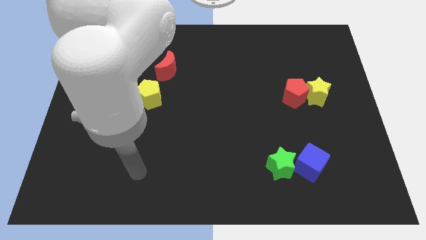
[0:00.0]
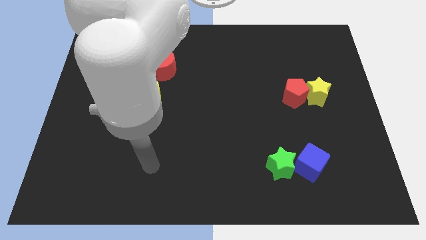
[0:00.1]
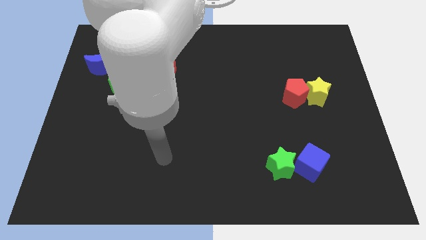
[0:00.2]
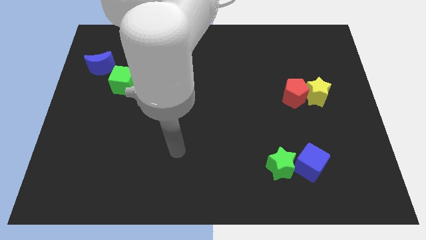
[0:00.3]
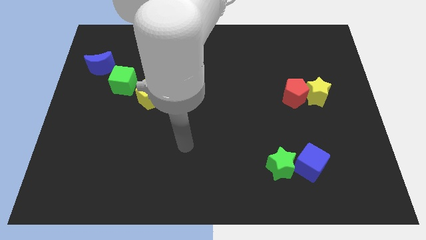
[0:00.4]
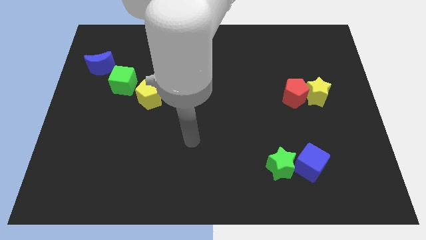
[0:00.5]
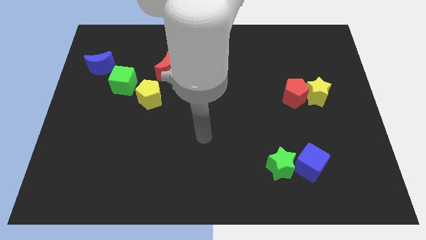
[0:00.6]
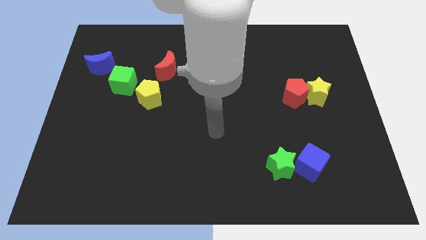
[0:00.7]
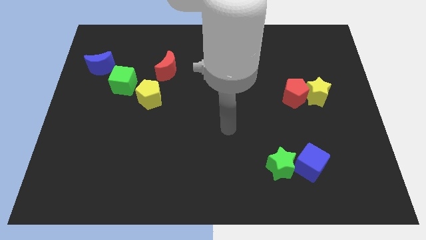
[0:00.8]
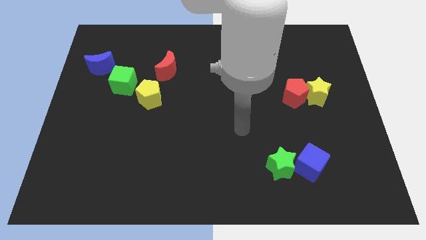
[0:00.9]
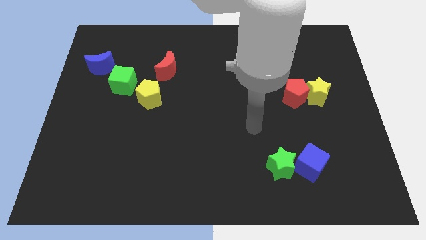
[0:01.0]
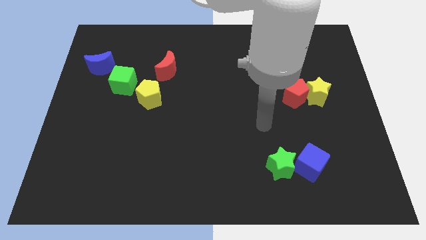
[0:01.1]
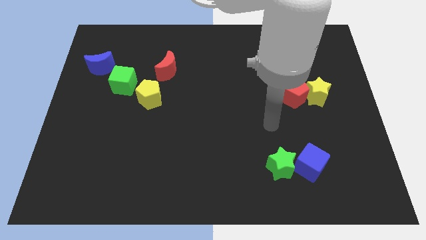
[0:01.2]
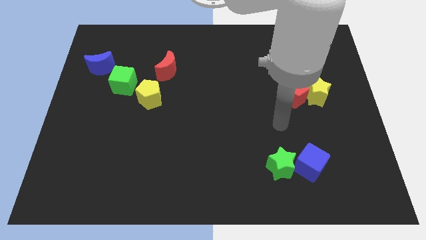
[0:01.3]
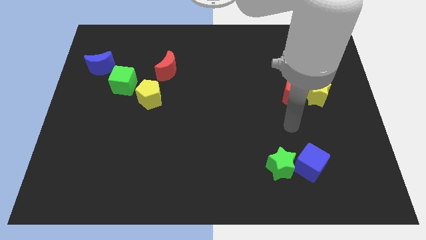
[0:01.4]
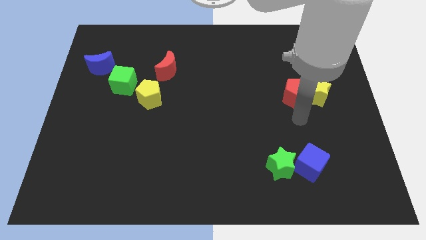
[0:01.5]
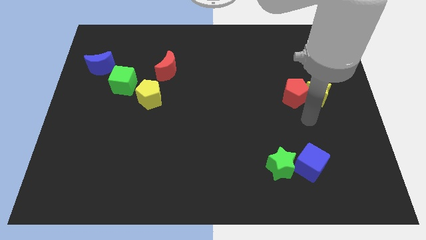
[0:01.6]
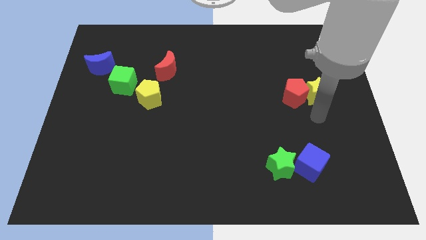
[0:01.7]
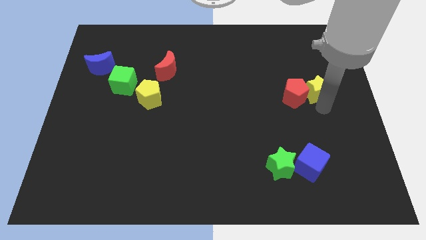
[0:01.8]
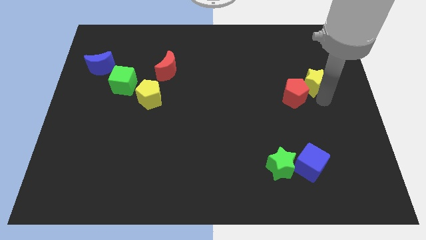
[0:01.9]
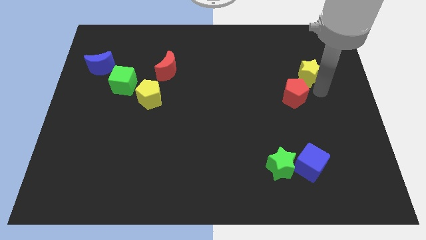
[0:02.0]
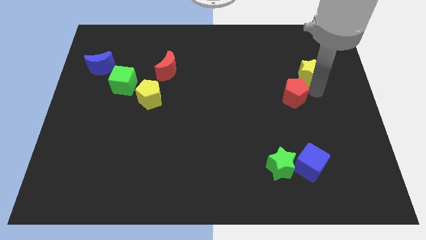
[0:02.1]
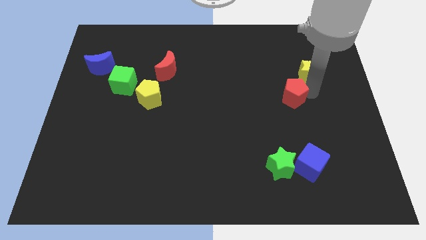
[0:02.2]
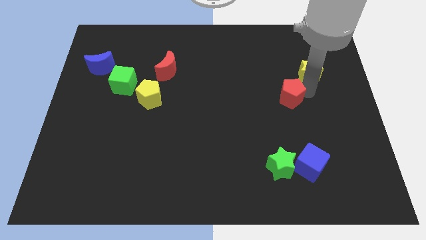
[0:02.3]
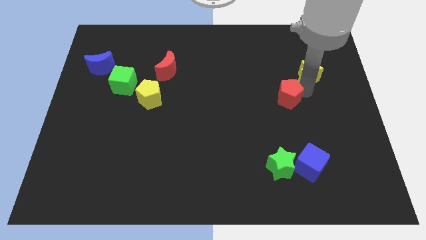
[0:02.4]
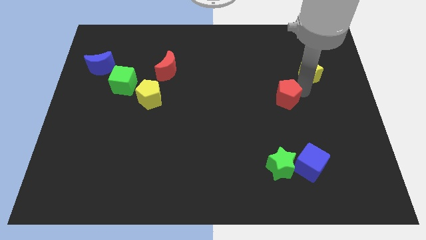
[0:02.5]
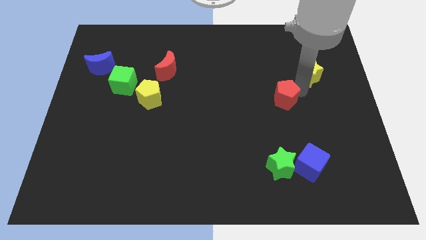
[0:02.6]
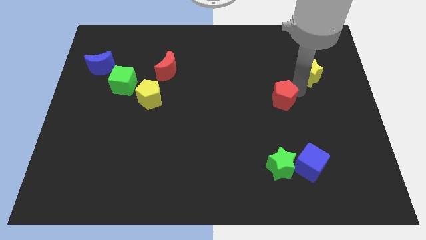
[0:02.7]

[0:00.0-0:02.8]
separate the red pentagon from the yellow star

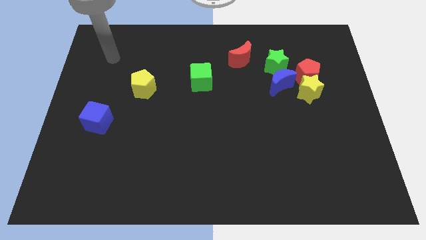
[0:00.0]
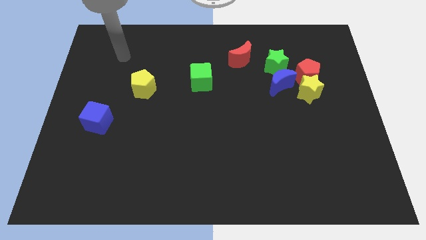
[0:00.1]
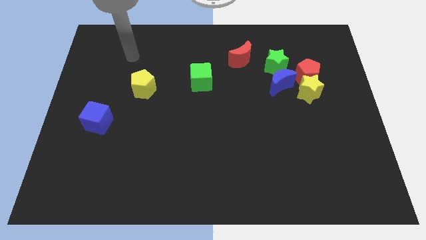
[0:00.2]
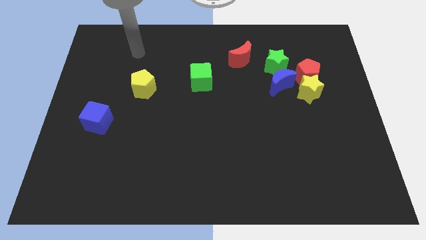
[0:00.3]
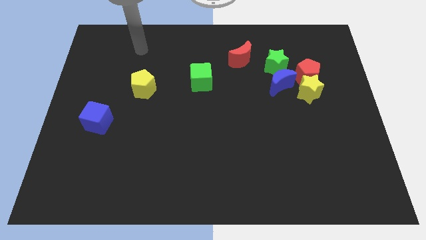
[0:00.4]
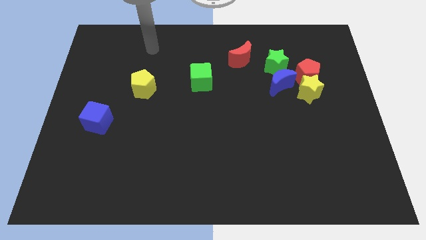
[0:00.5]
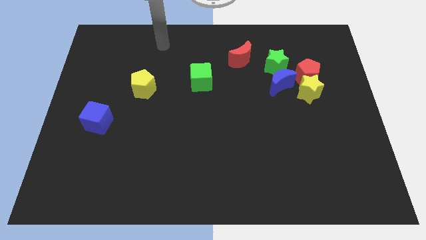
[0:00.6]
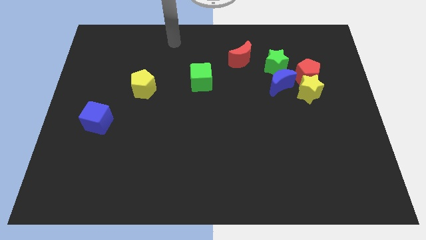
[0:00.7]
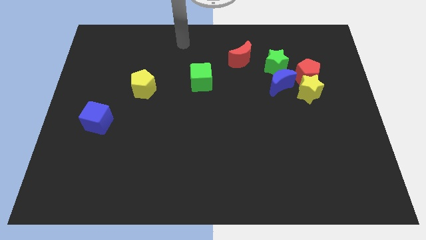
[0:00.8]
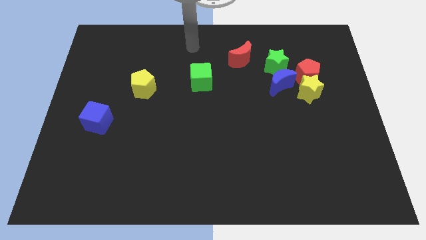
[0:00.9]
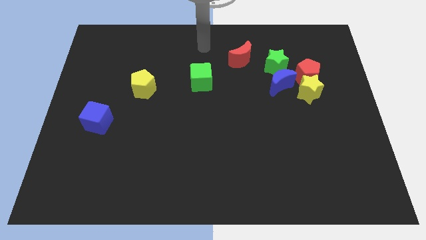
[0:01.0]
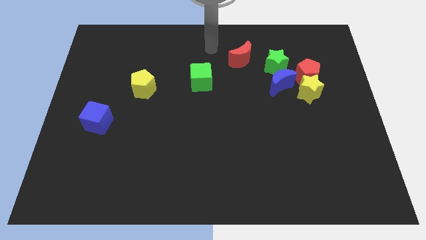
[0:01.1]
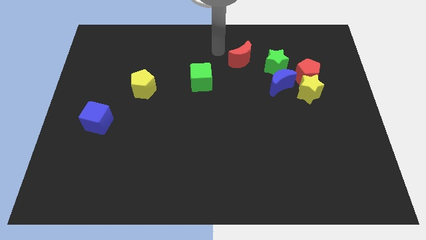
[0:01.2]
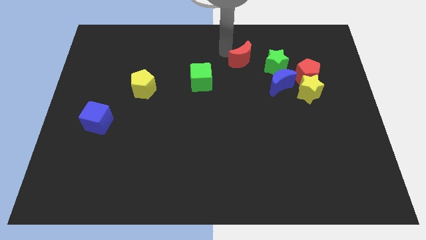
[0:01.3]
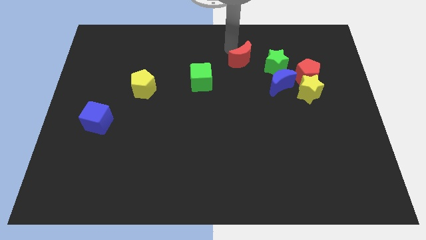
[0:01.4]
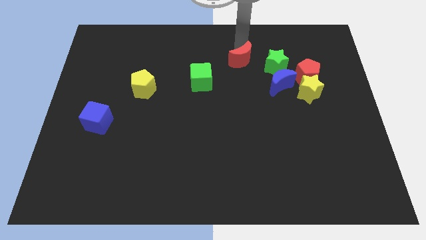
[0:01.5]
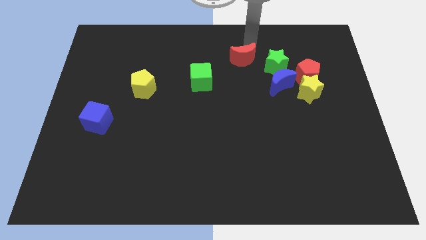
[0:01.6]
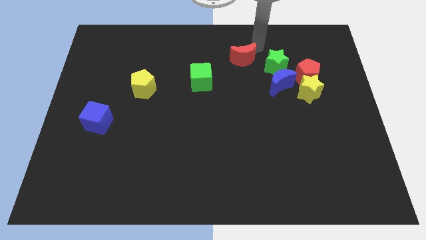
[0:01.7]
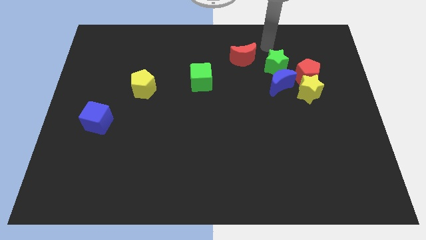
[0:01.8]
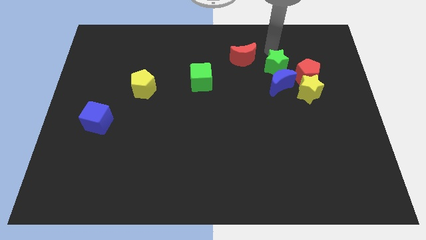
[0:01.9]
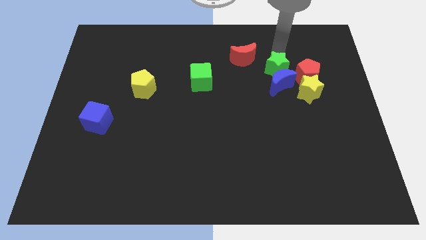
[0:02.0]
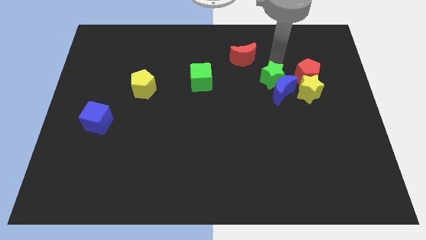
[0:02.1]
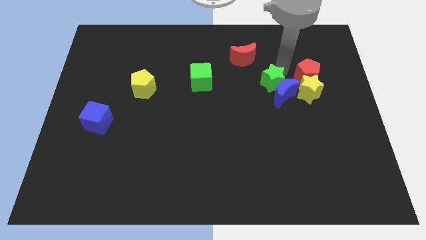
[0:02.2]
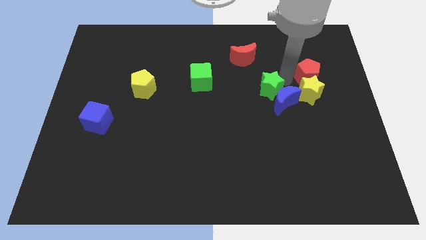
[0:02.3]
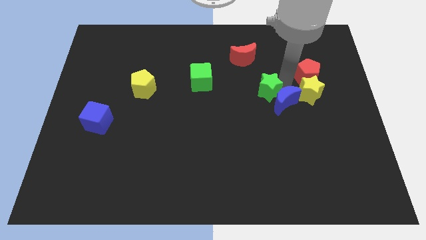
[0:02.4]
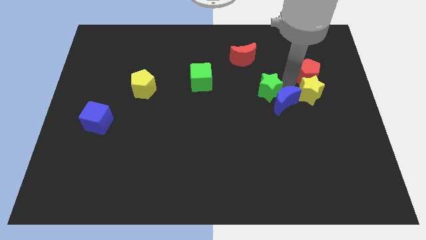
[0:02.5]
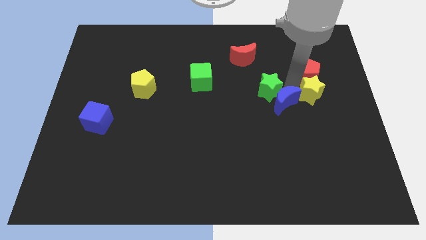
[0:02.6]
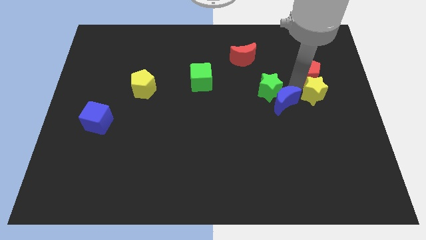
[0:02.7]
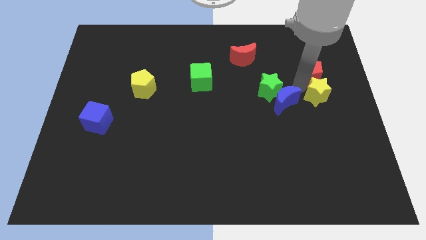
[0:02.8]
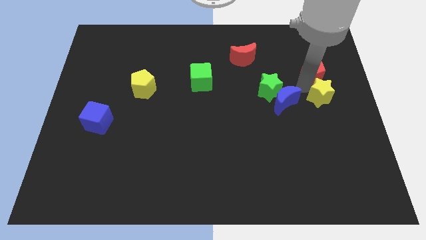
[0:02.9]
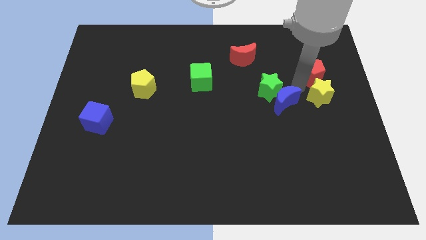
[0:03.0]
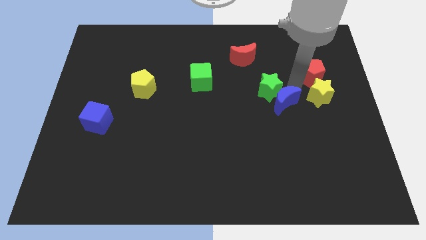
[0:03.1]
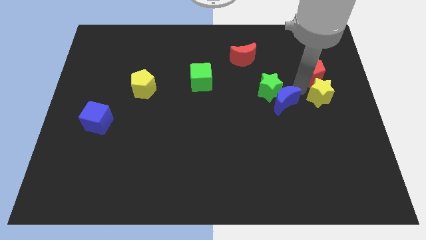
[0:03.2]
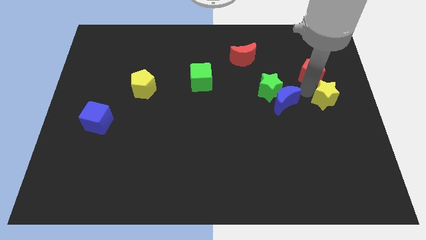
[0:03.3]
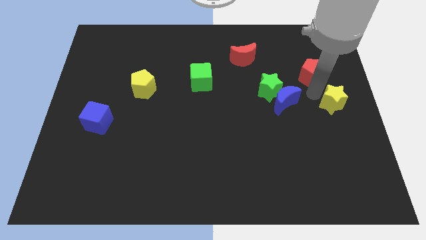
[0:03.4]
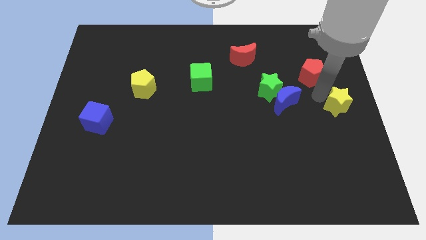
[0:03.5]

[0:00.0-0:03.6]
pull the yellow star apart from the red pentagon and blue moon

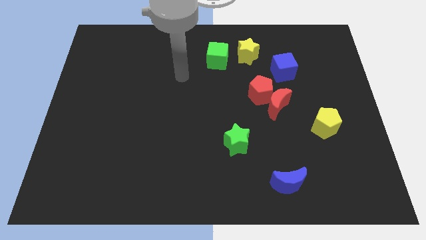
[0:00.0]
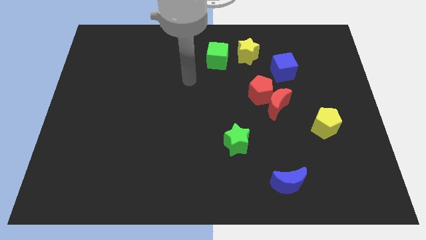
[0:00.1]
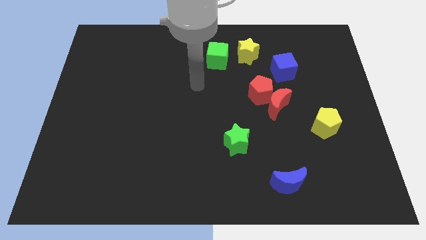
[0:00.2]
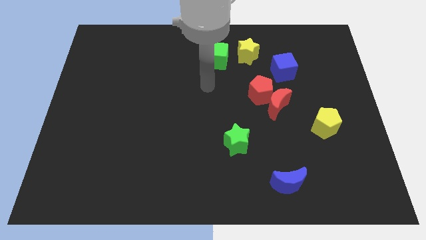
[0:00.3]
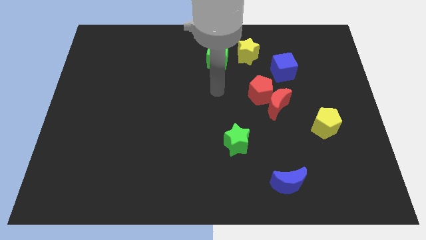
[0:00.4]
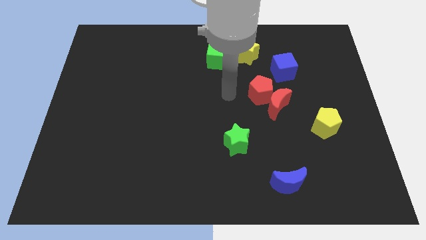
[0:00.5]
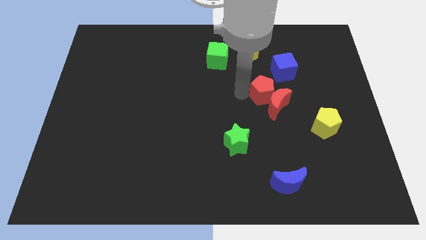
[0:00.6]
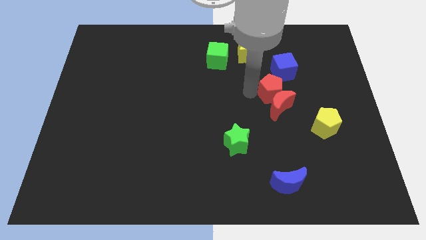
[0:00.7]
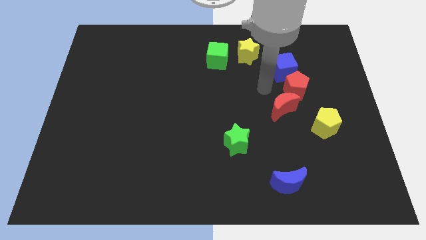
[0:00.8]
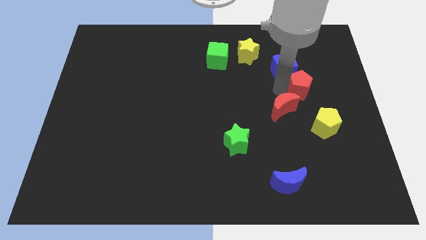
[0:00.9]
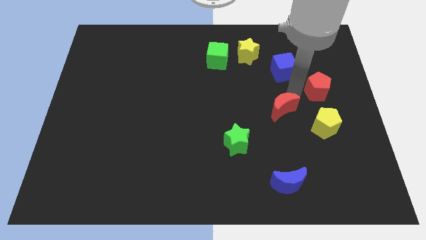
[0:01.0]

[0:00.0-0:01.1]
separate the red moon from the red pentagon

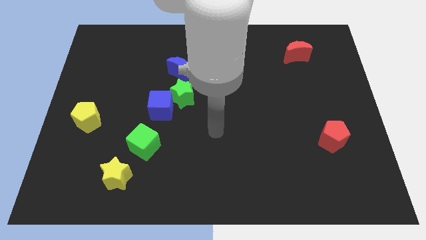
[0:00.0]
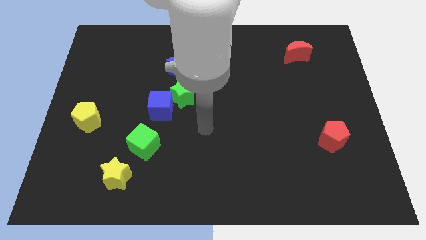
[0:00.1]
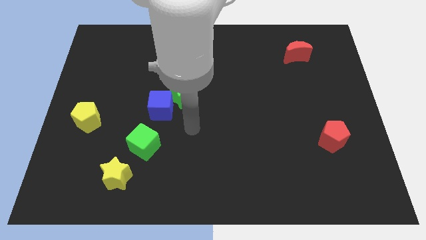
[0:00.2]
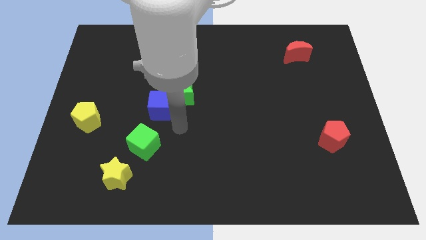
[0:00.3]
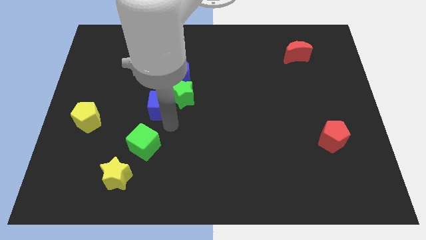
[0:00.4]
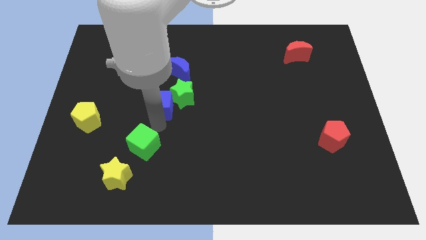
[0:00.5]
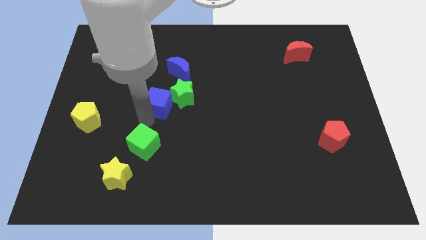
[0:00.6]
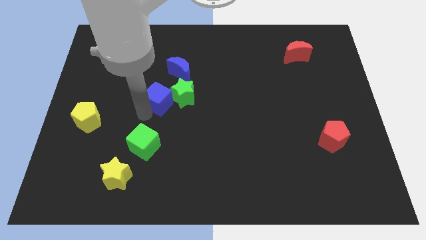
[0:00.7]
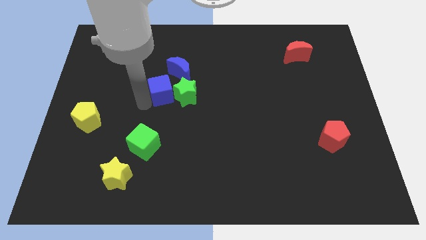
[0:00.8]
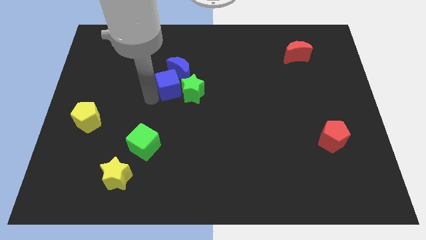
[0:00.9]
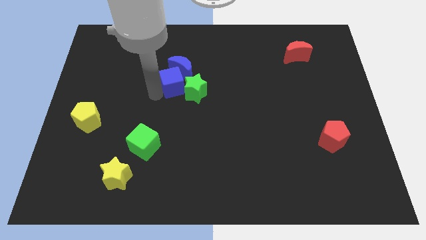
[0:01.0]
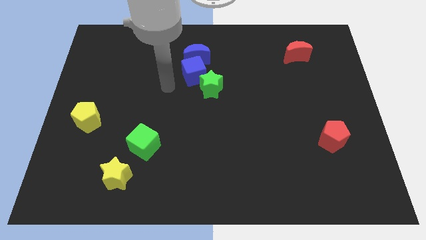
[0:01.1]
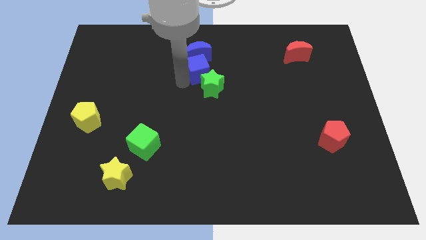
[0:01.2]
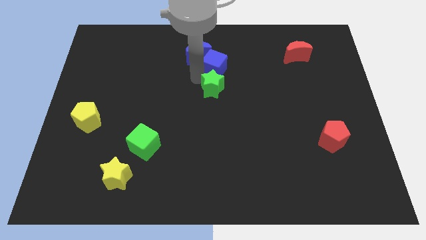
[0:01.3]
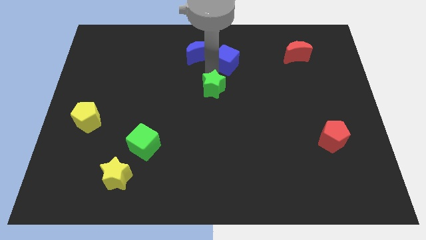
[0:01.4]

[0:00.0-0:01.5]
separate the green star from the blue cube and blue moon

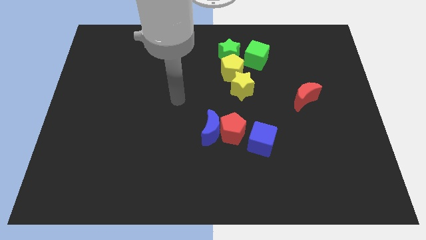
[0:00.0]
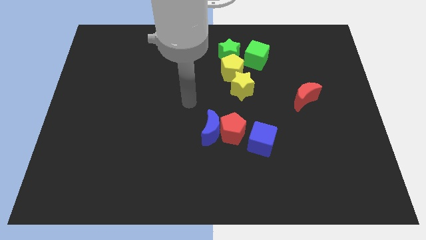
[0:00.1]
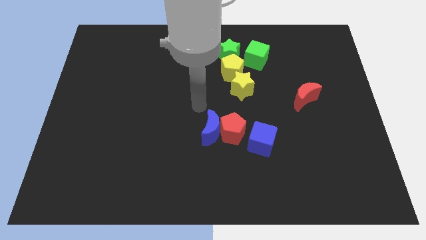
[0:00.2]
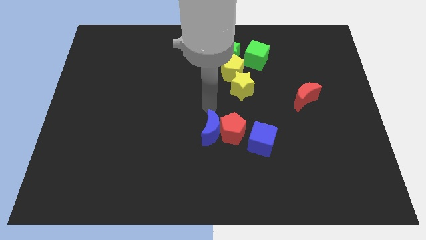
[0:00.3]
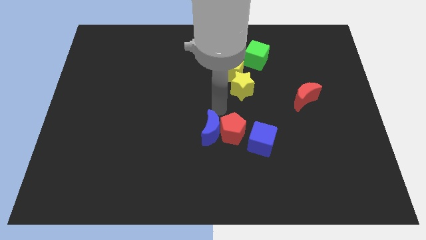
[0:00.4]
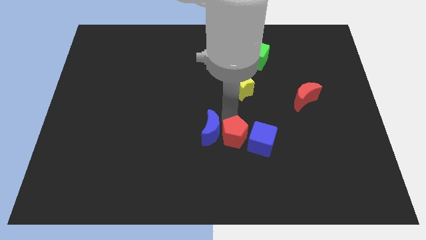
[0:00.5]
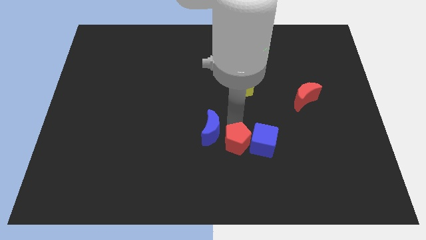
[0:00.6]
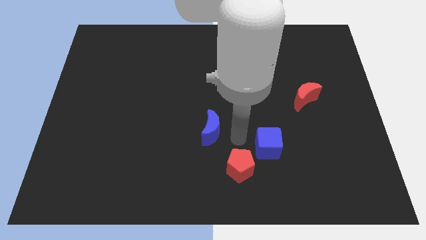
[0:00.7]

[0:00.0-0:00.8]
separate the blue moon from the red pentagon
